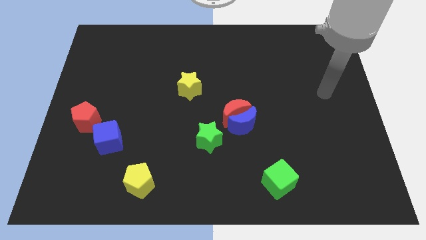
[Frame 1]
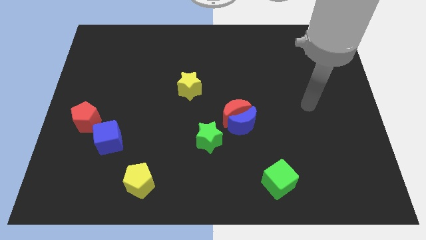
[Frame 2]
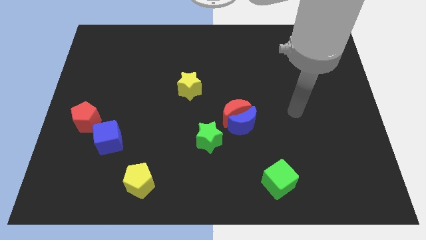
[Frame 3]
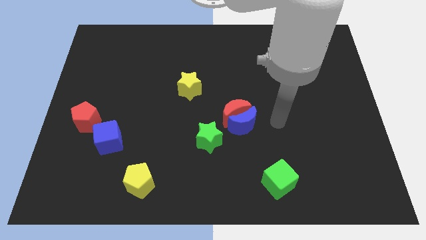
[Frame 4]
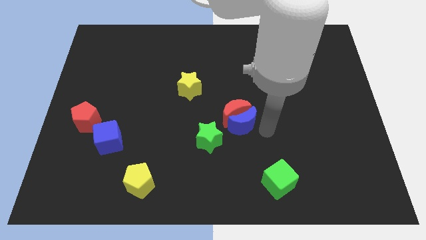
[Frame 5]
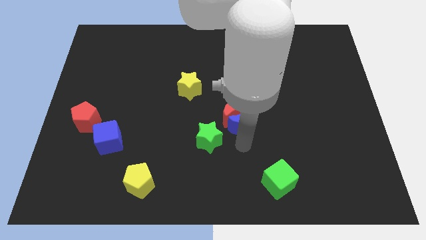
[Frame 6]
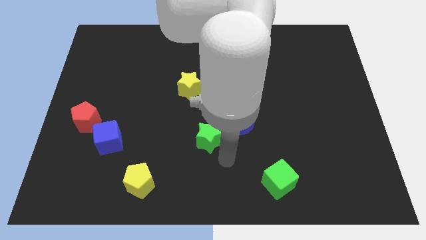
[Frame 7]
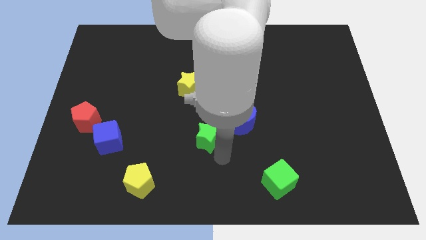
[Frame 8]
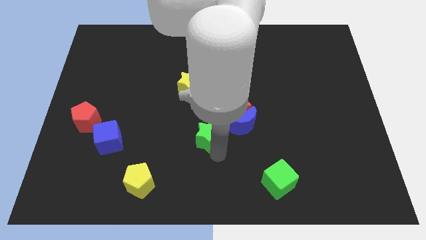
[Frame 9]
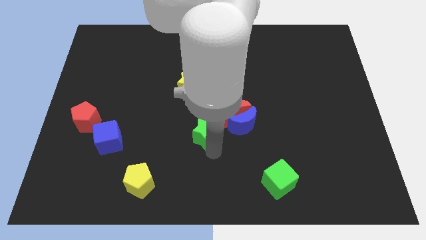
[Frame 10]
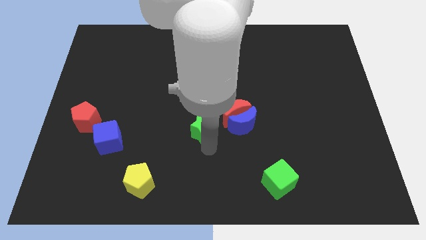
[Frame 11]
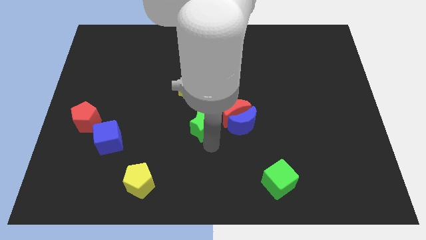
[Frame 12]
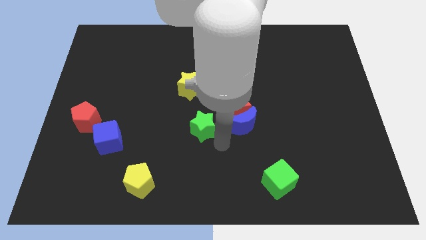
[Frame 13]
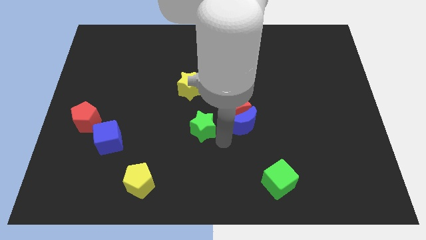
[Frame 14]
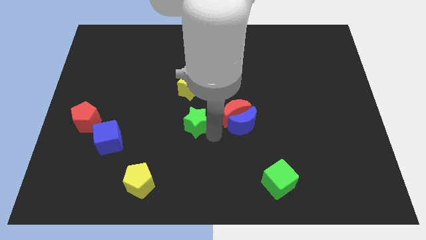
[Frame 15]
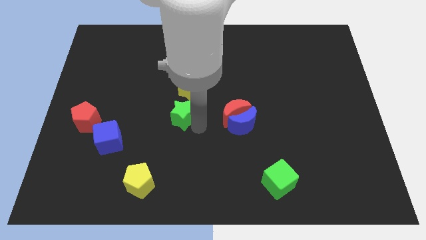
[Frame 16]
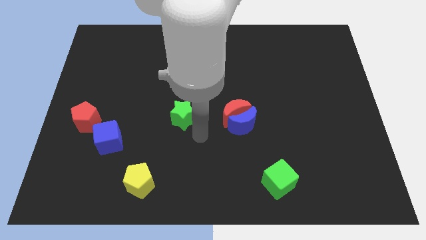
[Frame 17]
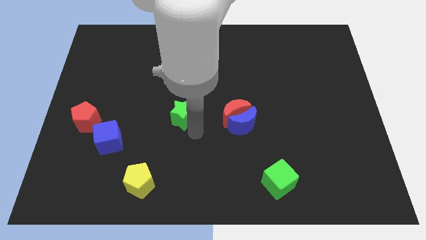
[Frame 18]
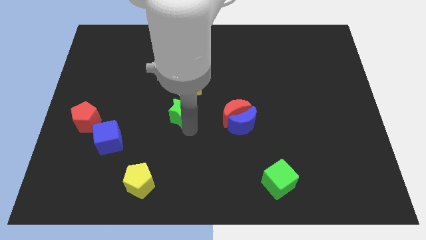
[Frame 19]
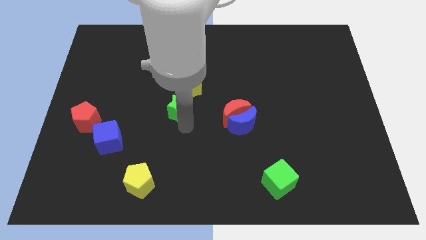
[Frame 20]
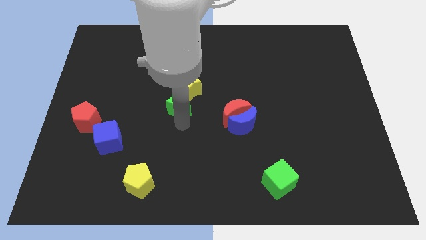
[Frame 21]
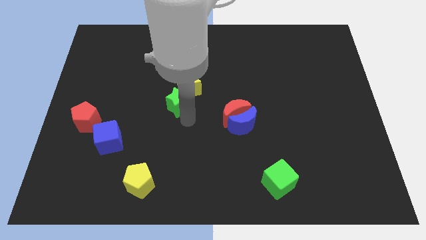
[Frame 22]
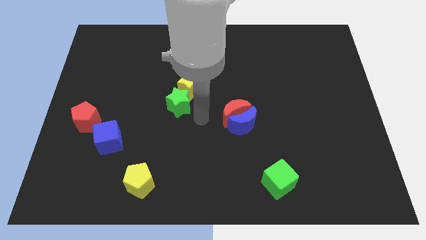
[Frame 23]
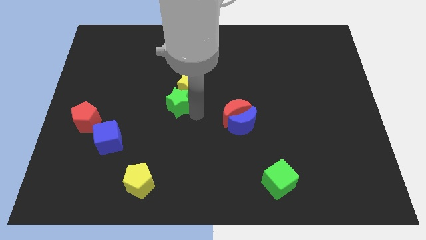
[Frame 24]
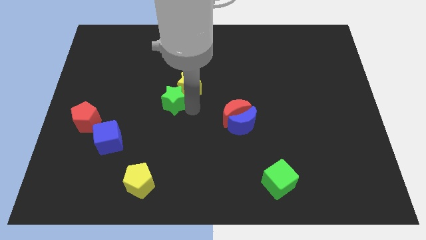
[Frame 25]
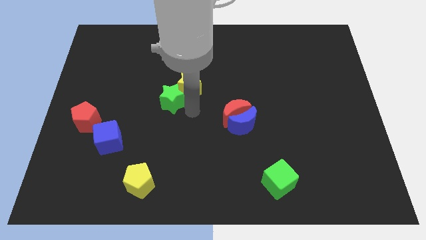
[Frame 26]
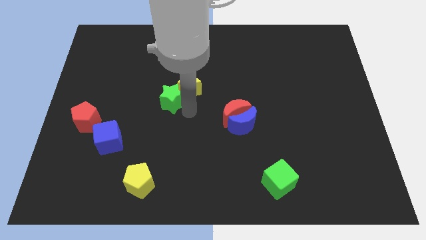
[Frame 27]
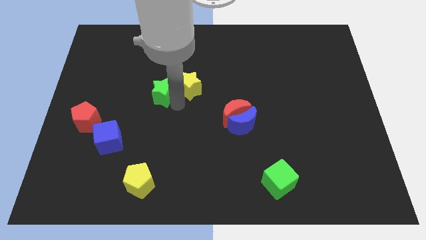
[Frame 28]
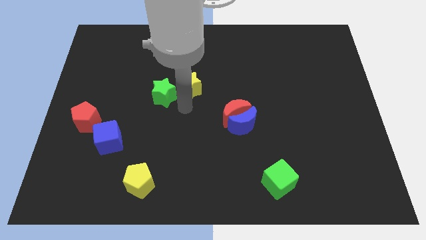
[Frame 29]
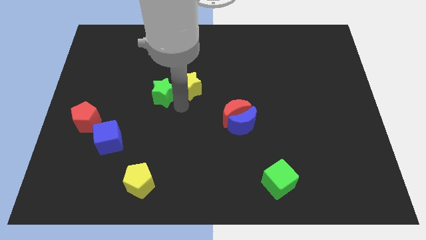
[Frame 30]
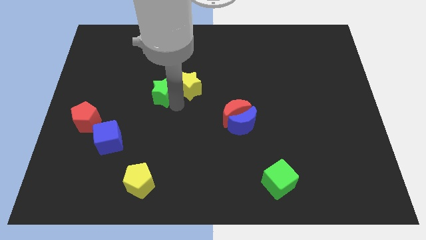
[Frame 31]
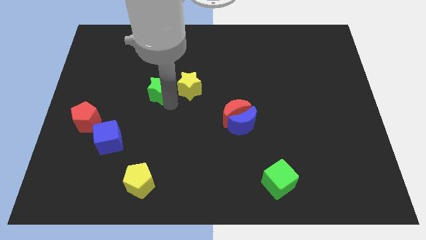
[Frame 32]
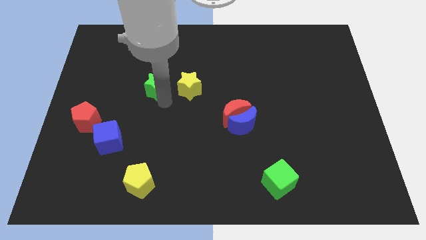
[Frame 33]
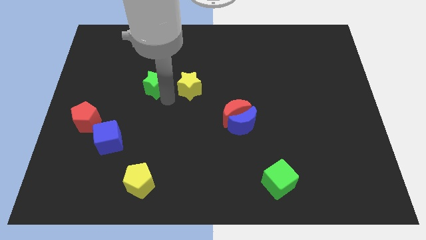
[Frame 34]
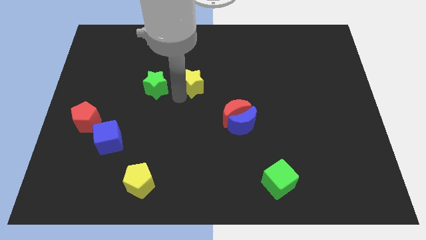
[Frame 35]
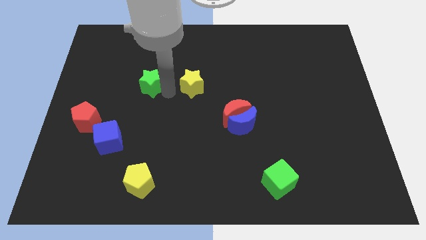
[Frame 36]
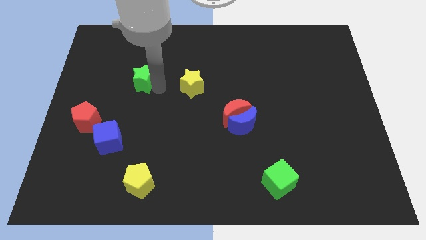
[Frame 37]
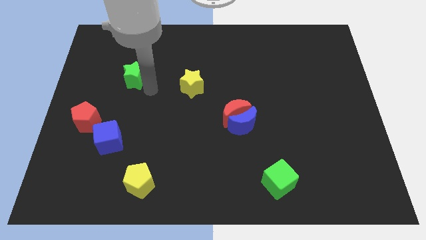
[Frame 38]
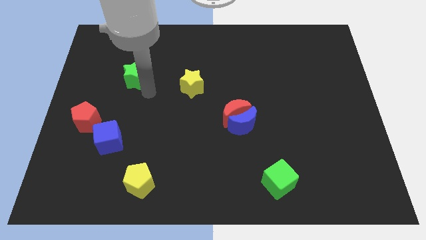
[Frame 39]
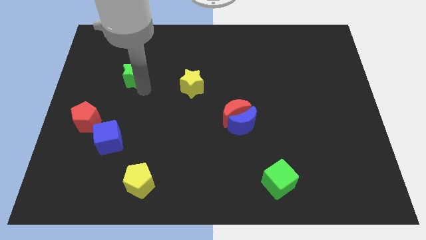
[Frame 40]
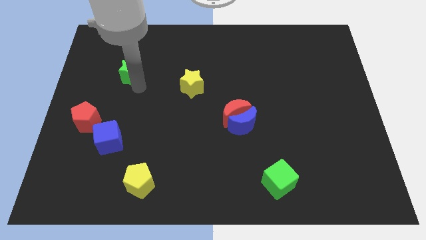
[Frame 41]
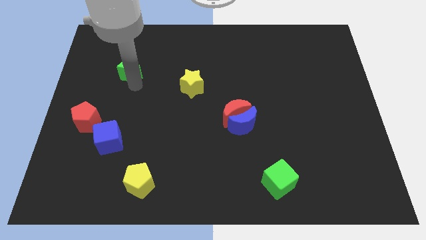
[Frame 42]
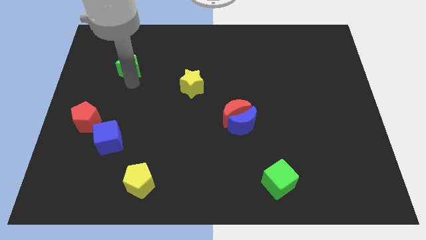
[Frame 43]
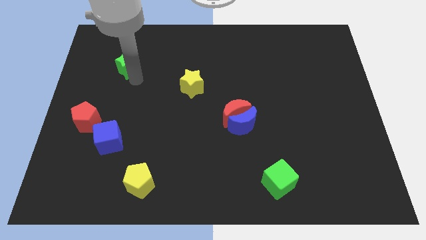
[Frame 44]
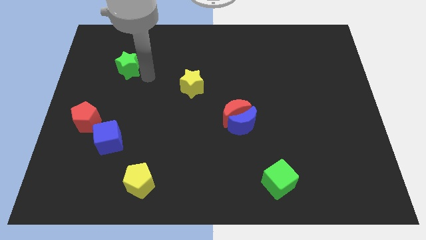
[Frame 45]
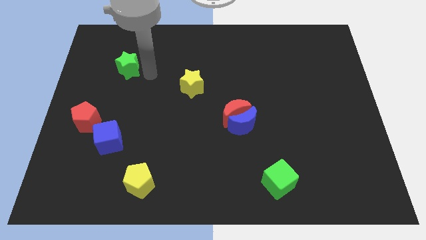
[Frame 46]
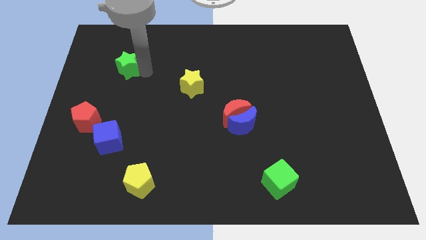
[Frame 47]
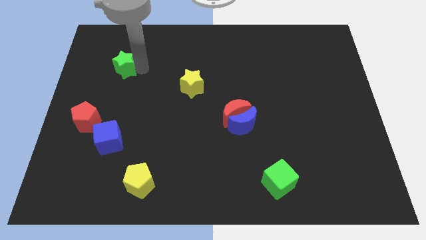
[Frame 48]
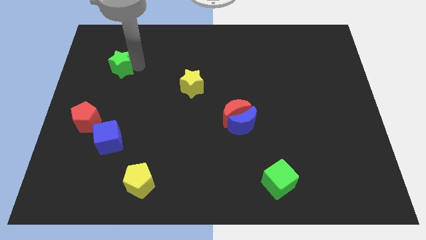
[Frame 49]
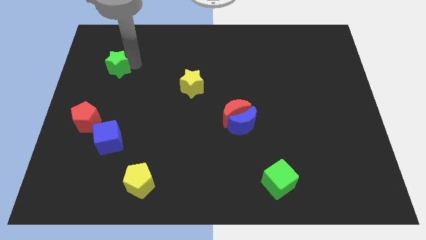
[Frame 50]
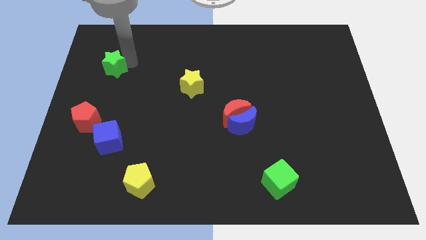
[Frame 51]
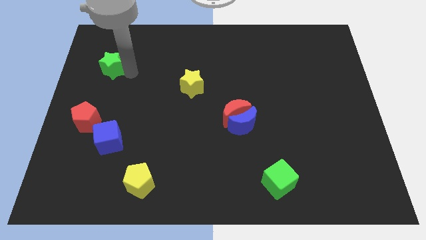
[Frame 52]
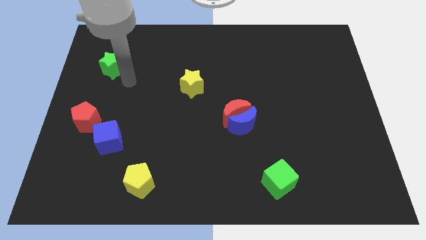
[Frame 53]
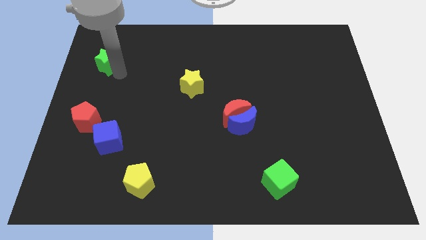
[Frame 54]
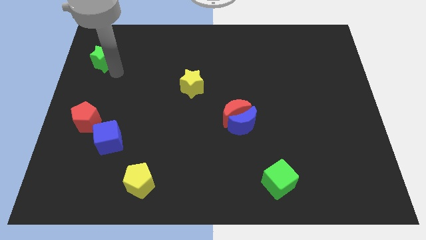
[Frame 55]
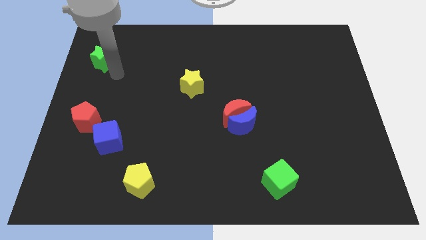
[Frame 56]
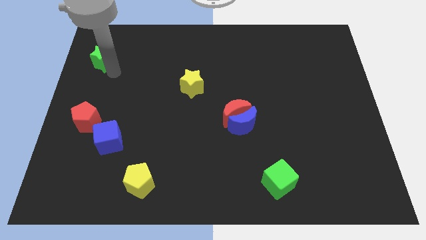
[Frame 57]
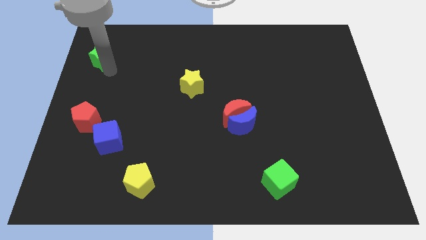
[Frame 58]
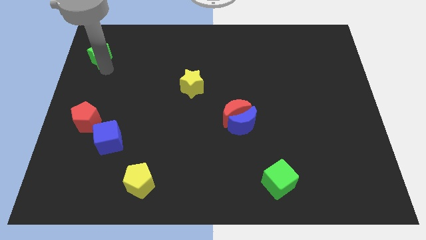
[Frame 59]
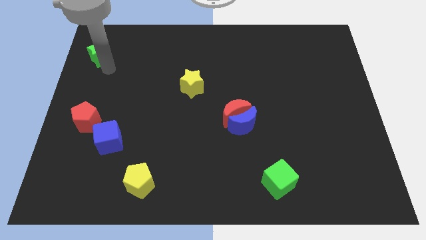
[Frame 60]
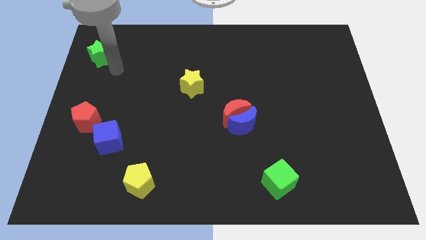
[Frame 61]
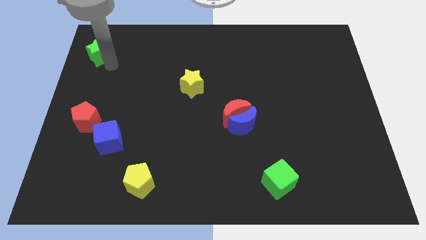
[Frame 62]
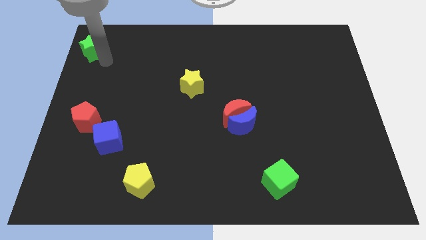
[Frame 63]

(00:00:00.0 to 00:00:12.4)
push the green star to the upper left corner
